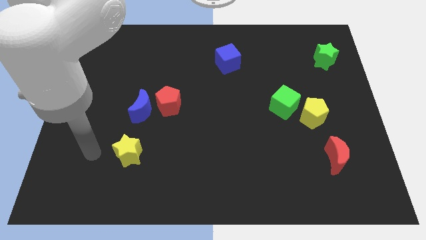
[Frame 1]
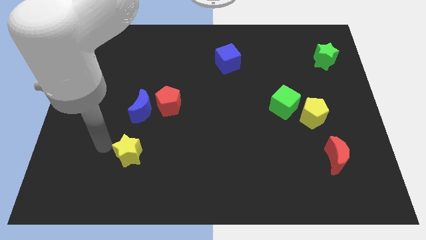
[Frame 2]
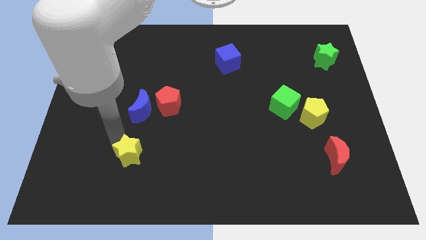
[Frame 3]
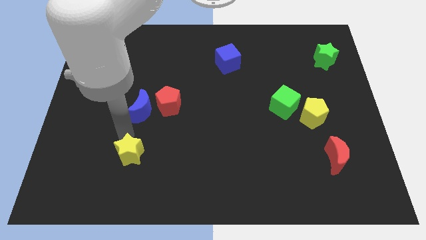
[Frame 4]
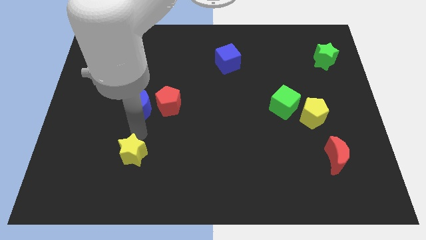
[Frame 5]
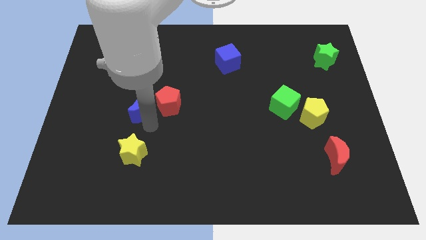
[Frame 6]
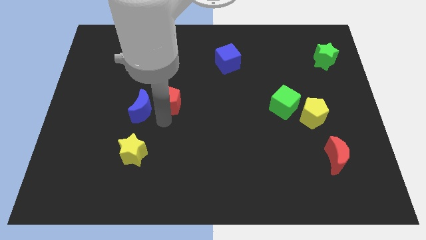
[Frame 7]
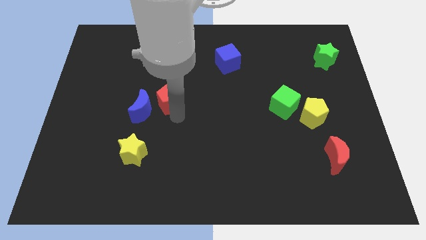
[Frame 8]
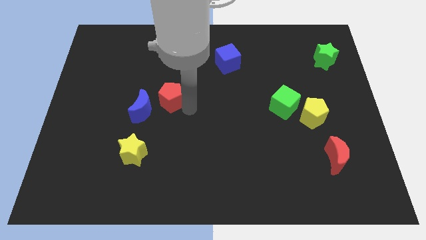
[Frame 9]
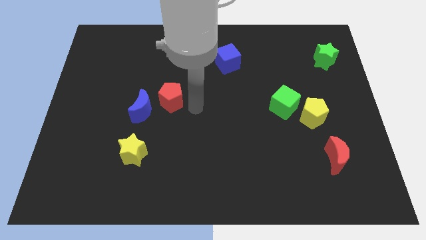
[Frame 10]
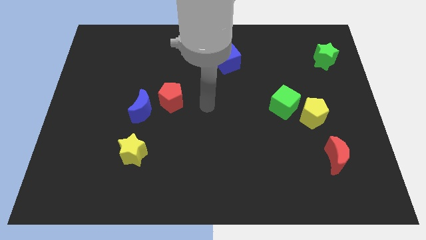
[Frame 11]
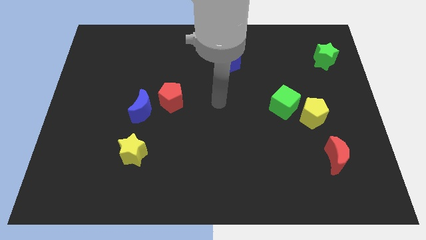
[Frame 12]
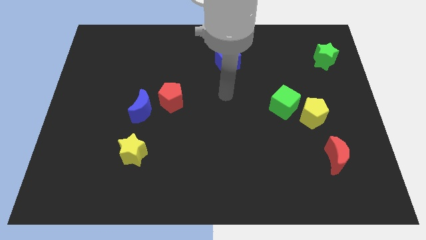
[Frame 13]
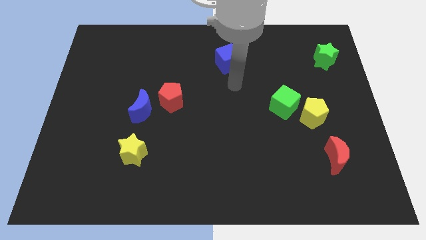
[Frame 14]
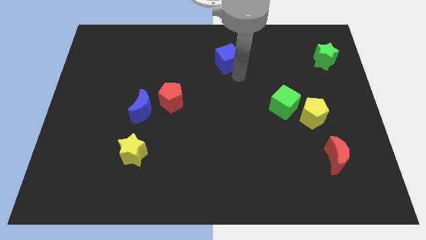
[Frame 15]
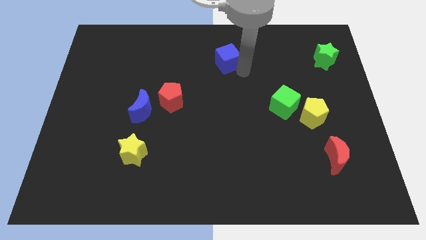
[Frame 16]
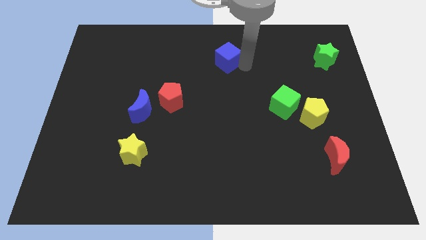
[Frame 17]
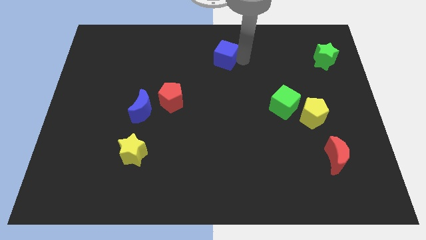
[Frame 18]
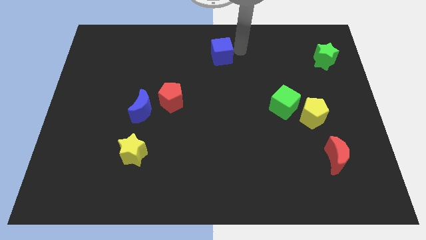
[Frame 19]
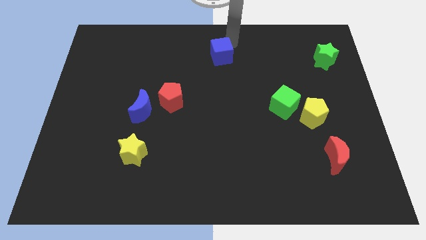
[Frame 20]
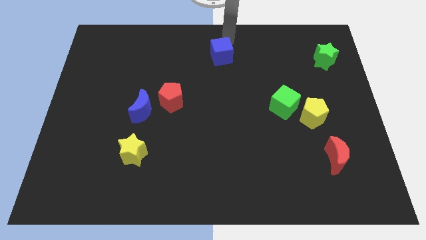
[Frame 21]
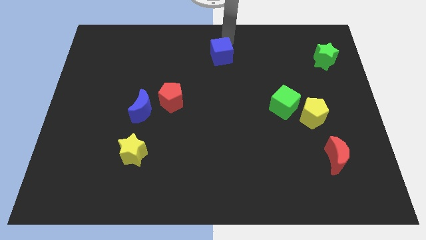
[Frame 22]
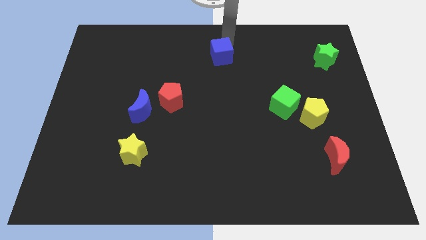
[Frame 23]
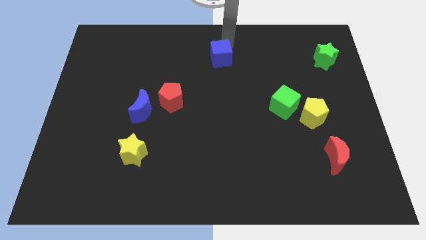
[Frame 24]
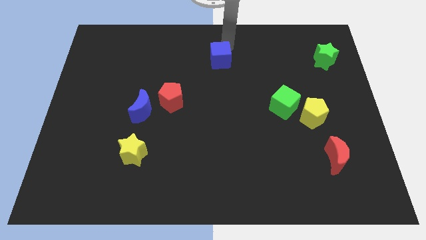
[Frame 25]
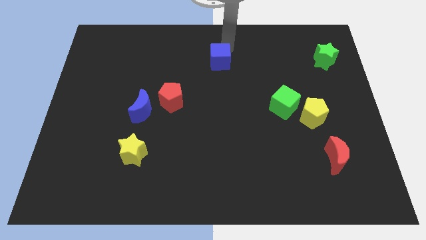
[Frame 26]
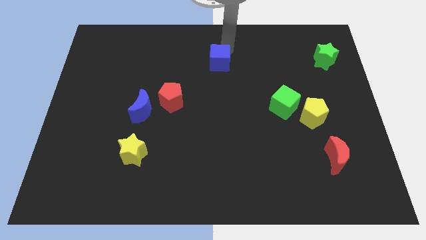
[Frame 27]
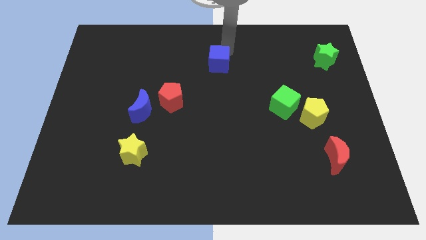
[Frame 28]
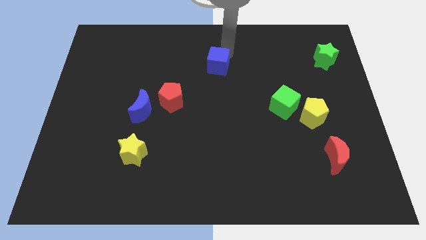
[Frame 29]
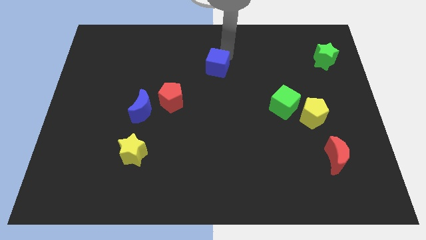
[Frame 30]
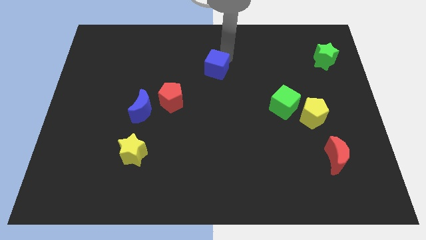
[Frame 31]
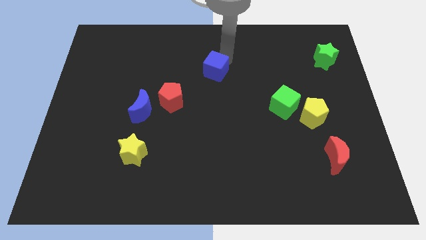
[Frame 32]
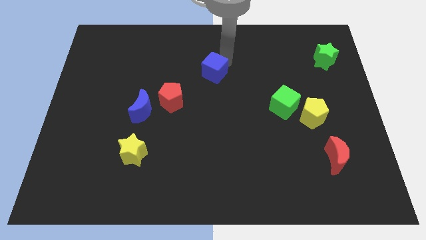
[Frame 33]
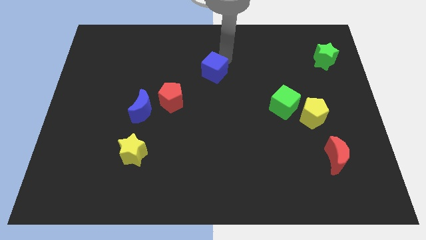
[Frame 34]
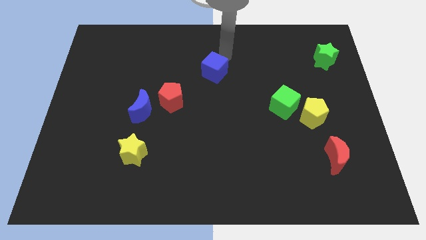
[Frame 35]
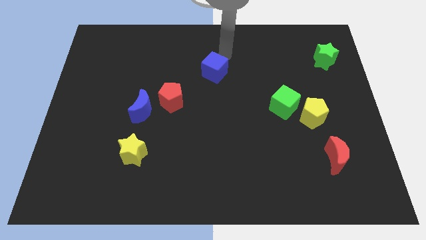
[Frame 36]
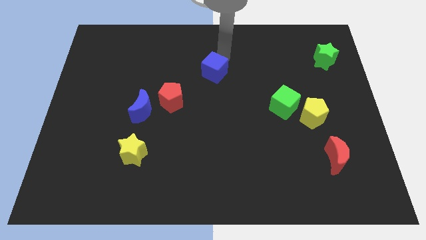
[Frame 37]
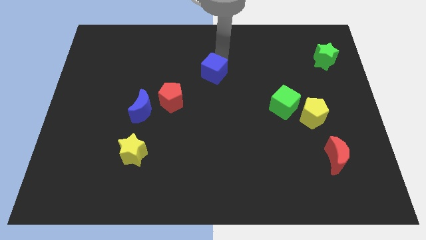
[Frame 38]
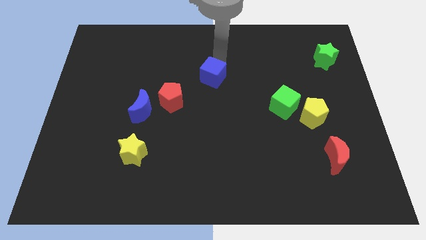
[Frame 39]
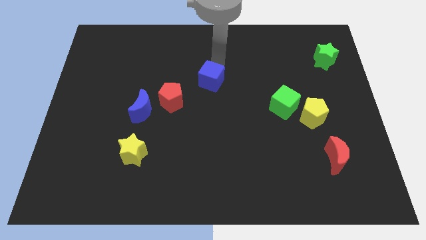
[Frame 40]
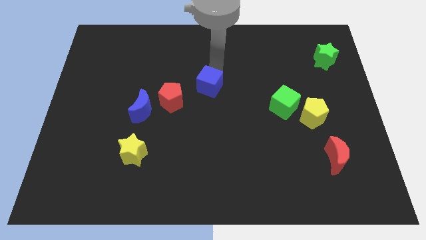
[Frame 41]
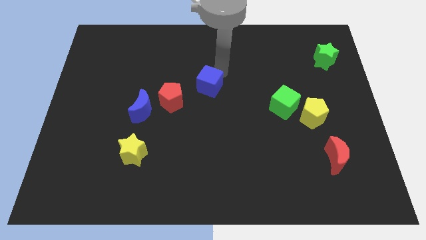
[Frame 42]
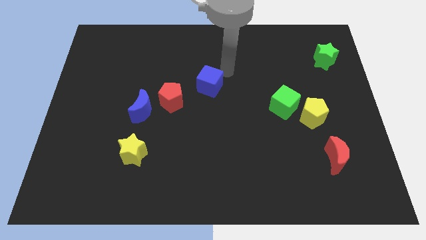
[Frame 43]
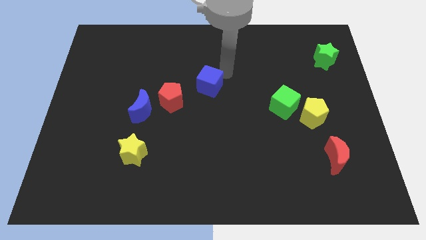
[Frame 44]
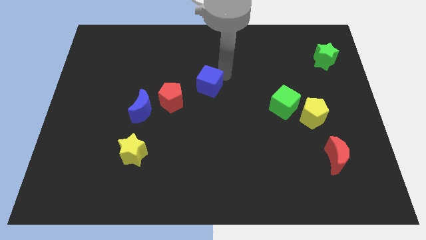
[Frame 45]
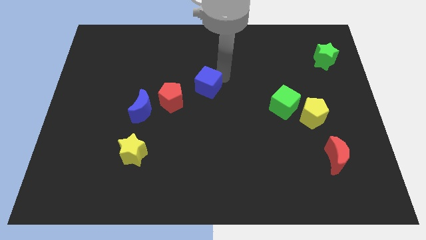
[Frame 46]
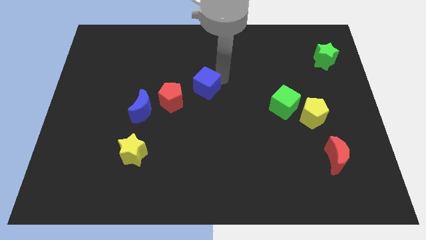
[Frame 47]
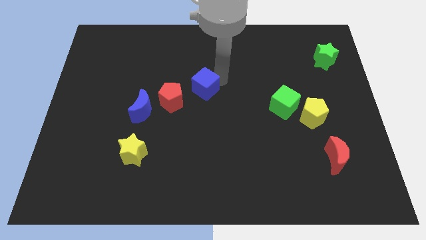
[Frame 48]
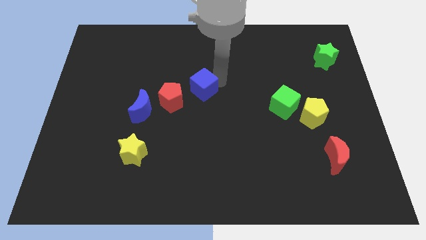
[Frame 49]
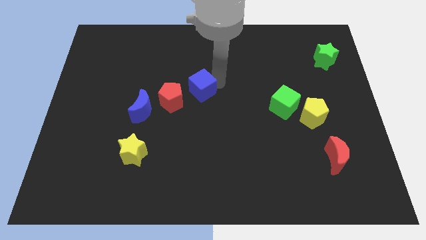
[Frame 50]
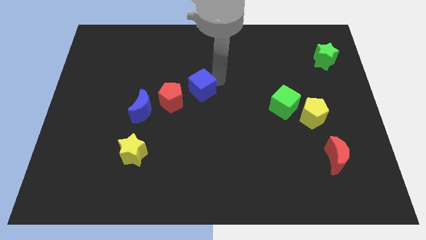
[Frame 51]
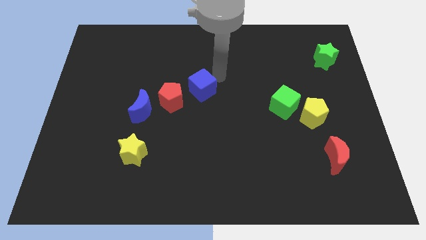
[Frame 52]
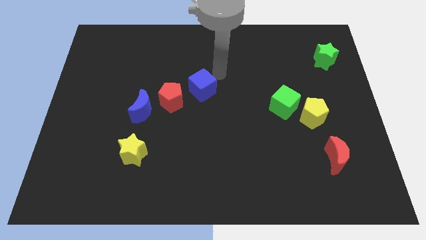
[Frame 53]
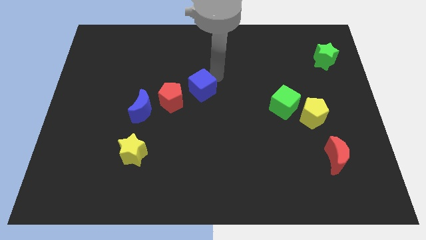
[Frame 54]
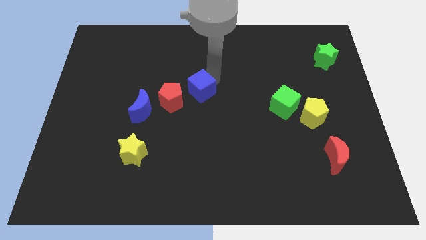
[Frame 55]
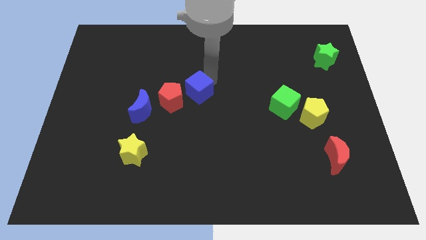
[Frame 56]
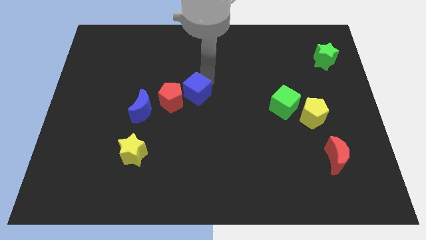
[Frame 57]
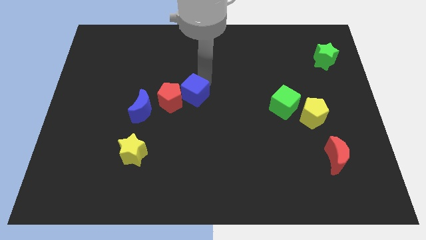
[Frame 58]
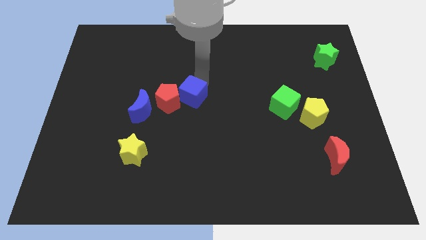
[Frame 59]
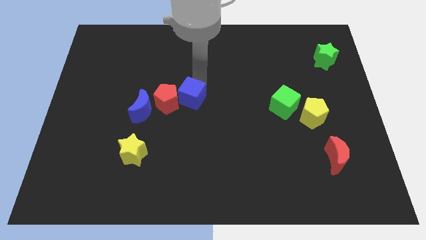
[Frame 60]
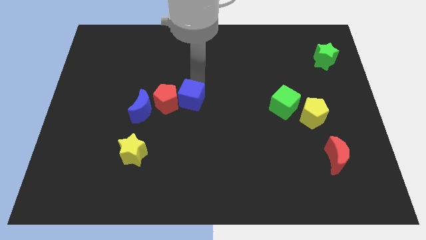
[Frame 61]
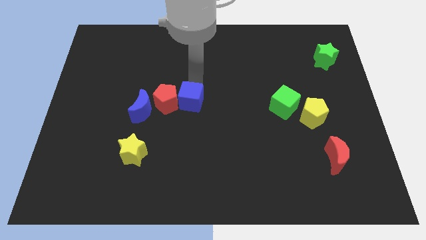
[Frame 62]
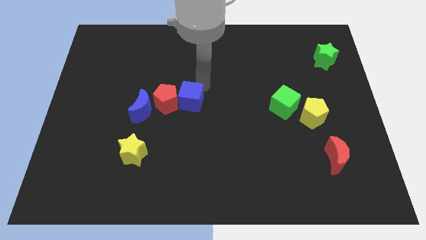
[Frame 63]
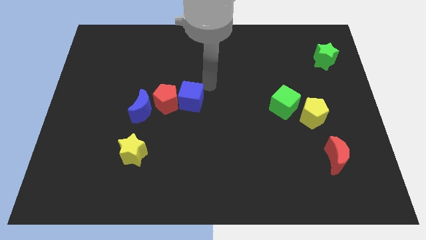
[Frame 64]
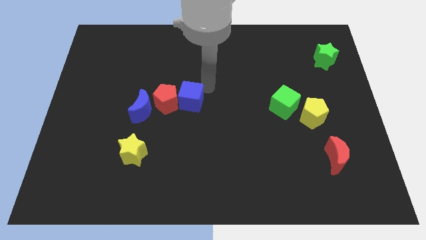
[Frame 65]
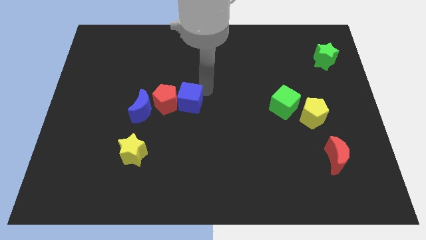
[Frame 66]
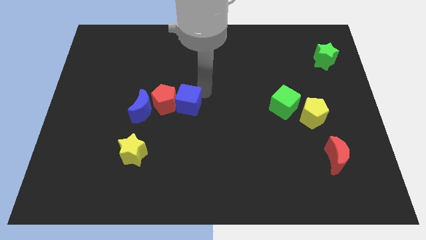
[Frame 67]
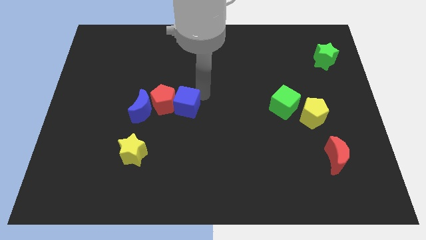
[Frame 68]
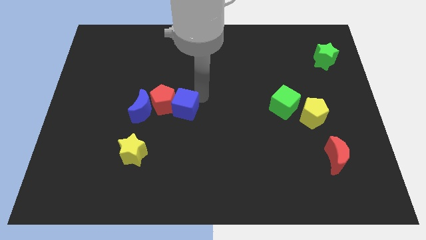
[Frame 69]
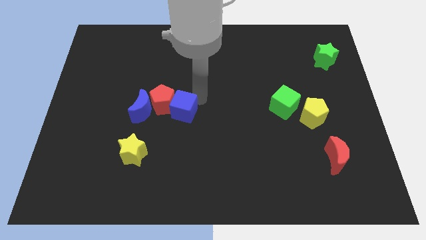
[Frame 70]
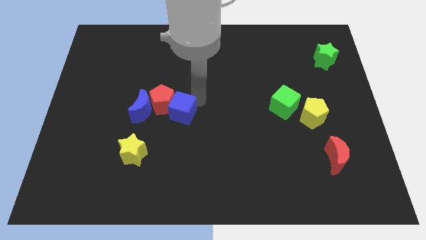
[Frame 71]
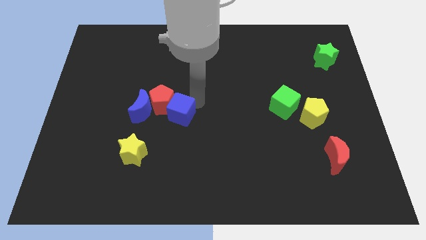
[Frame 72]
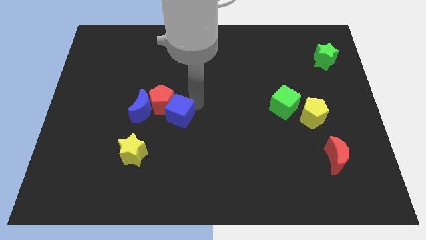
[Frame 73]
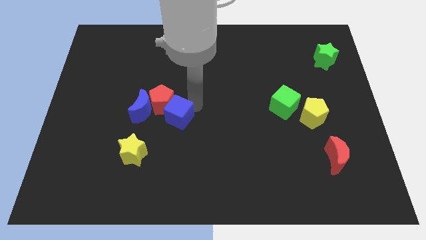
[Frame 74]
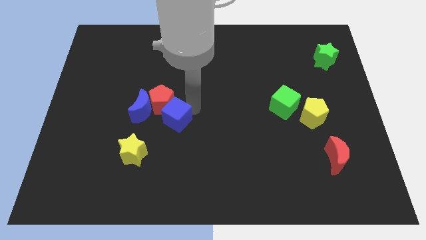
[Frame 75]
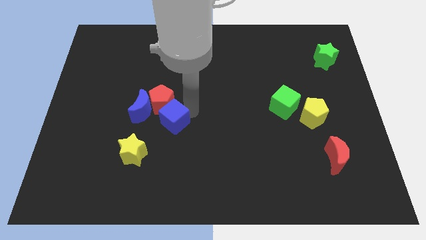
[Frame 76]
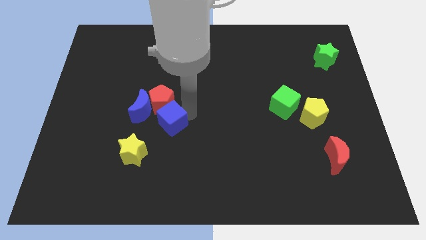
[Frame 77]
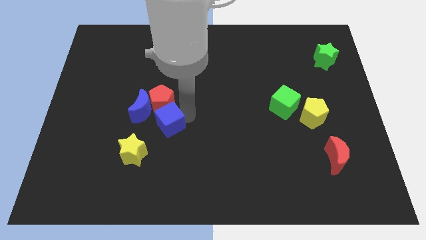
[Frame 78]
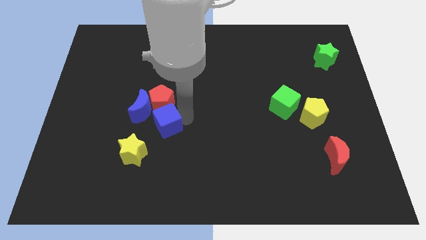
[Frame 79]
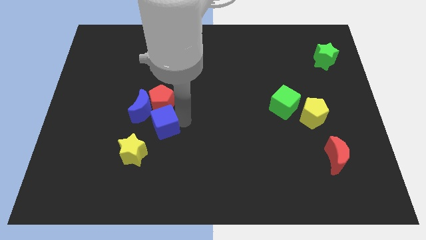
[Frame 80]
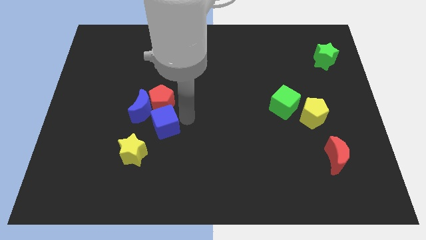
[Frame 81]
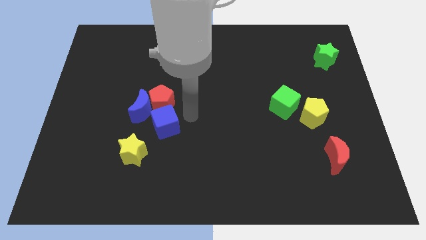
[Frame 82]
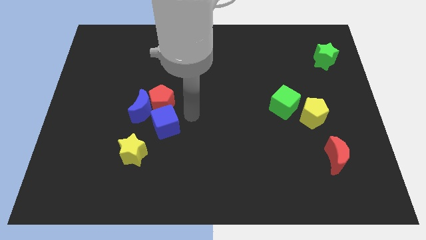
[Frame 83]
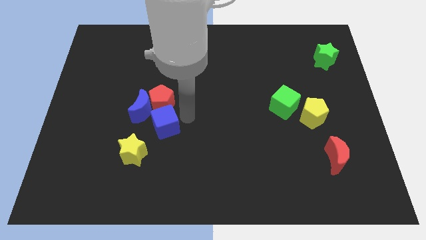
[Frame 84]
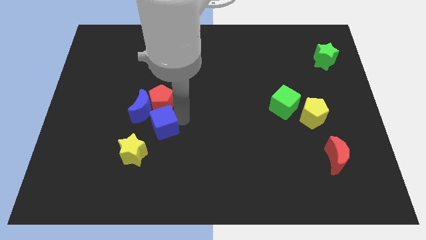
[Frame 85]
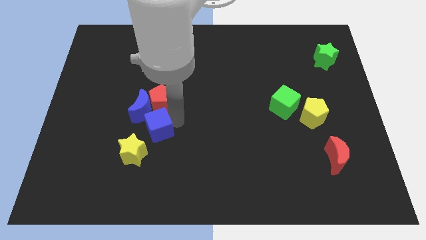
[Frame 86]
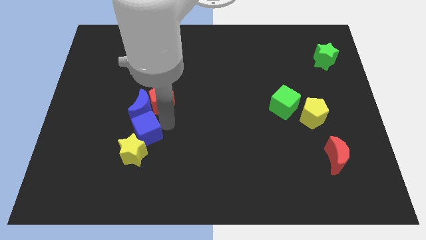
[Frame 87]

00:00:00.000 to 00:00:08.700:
move the blue cube to the yellow star
